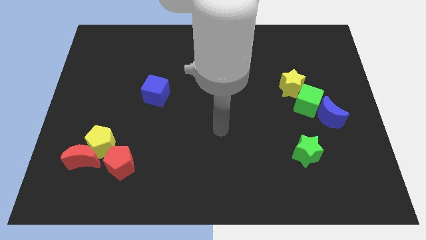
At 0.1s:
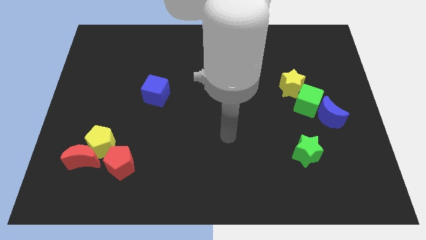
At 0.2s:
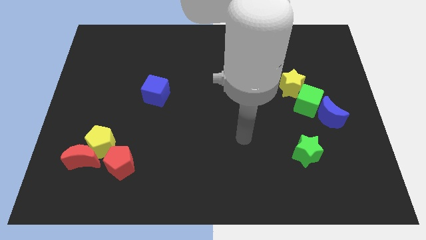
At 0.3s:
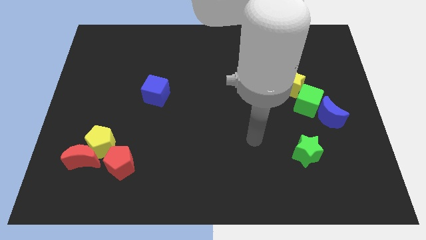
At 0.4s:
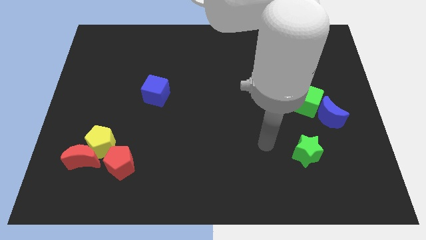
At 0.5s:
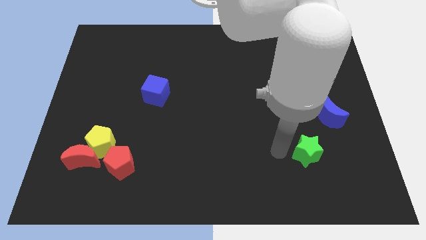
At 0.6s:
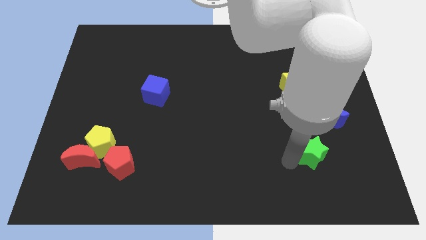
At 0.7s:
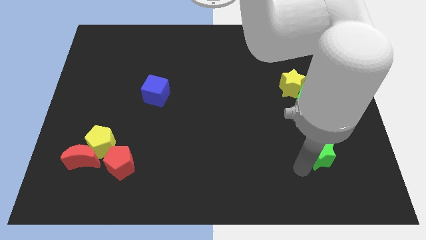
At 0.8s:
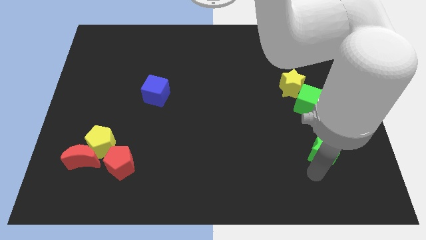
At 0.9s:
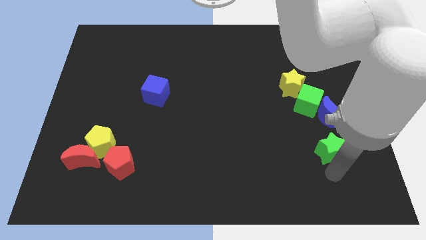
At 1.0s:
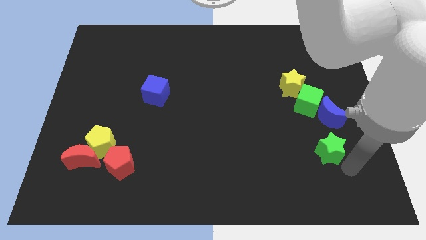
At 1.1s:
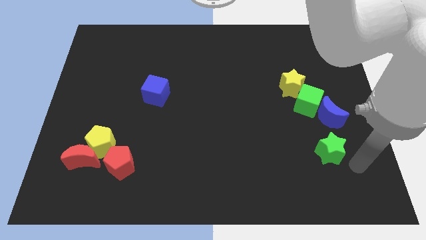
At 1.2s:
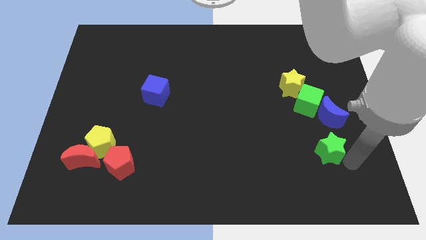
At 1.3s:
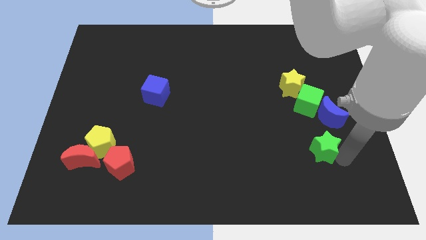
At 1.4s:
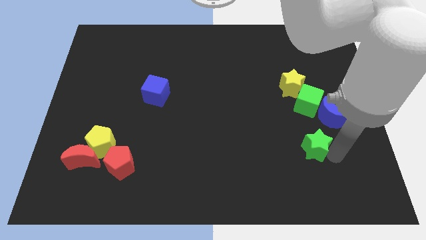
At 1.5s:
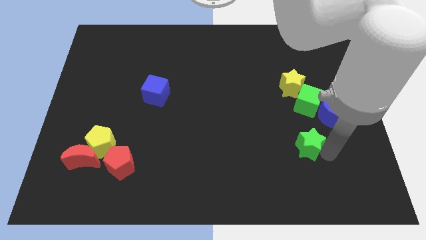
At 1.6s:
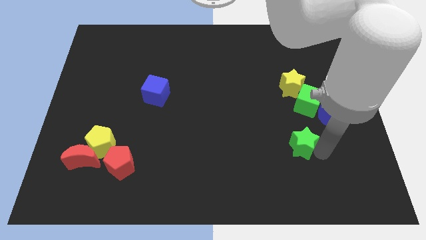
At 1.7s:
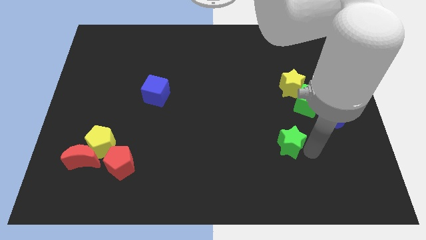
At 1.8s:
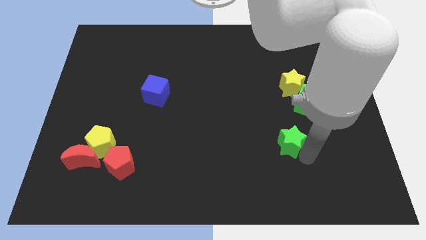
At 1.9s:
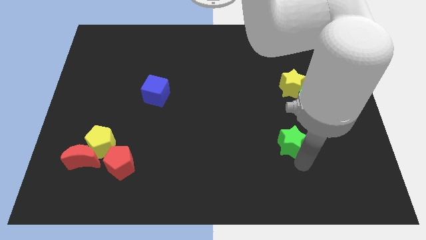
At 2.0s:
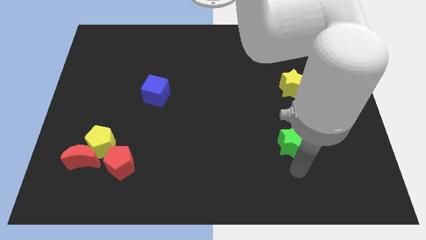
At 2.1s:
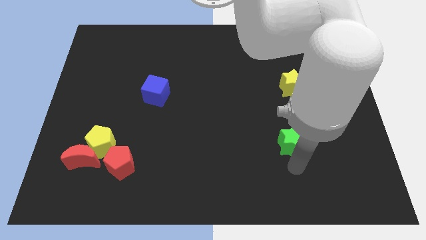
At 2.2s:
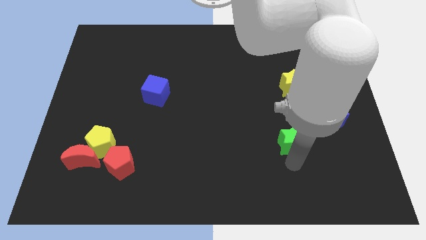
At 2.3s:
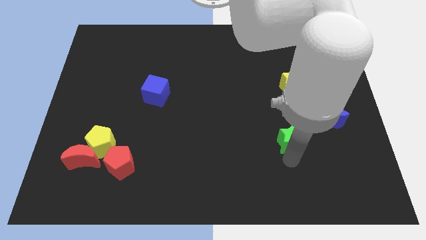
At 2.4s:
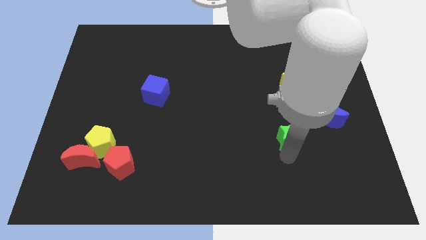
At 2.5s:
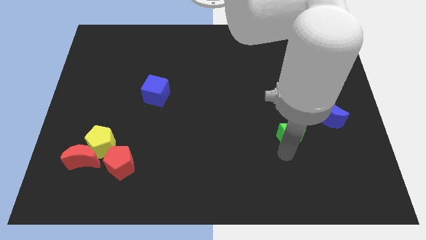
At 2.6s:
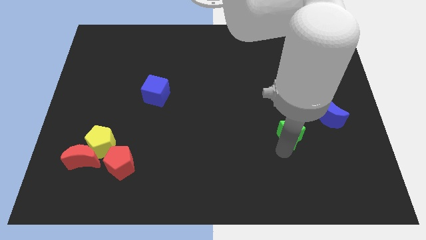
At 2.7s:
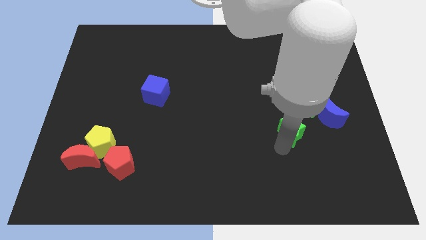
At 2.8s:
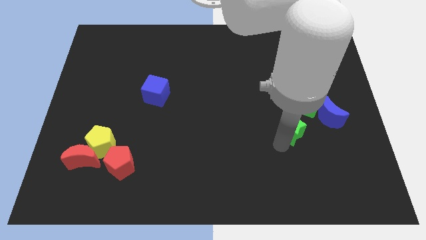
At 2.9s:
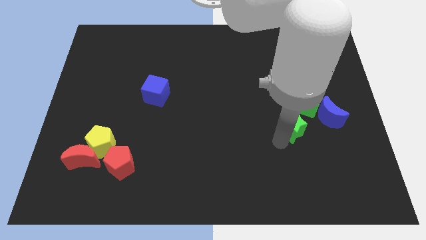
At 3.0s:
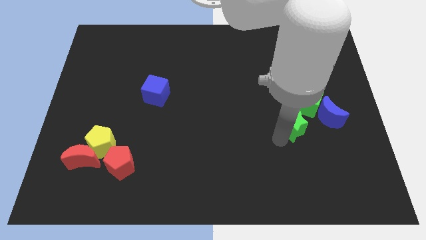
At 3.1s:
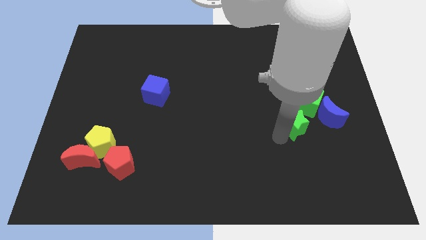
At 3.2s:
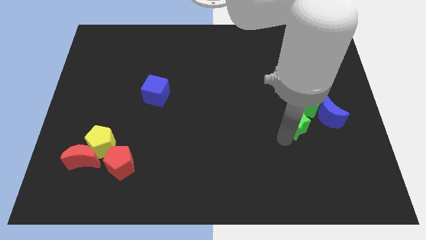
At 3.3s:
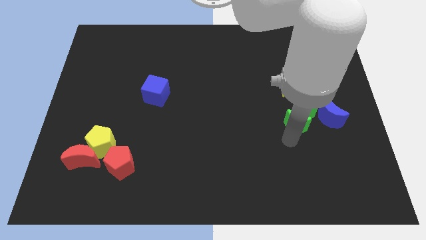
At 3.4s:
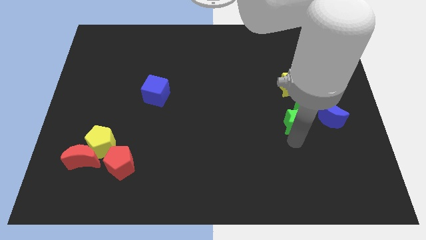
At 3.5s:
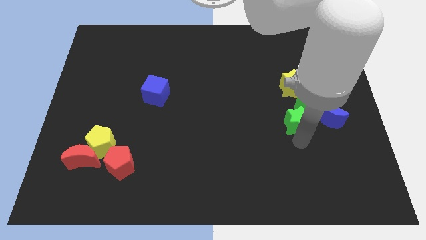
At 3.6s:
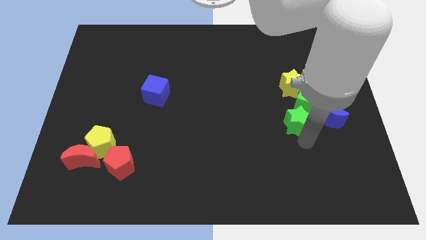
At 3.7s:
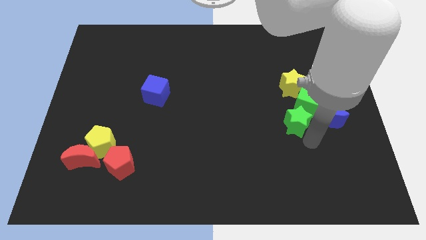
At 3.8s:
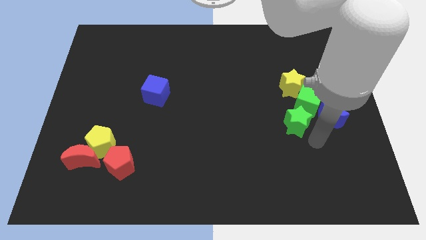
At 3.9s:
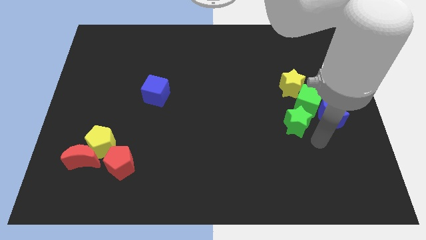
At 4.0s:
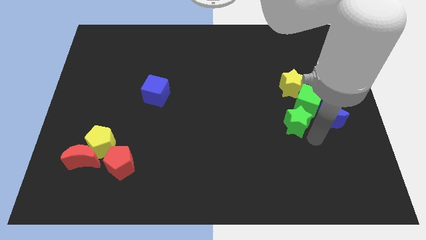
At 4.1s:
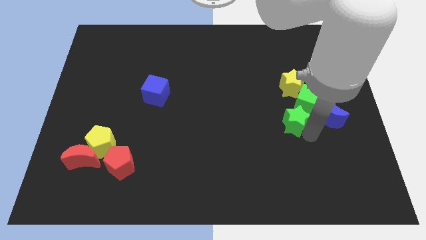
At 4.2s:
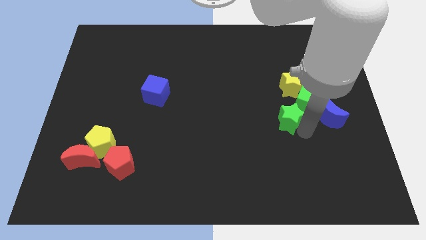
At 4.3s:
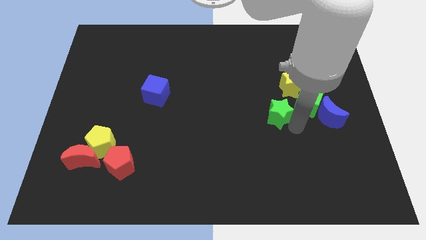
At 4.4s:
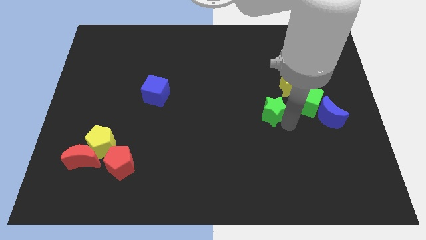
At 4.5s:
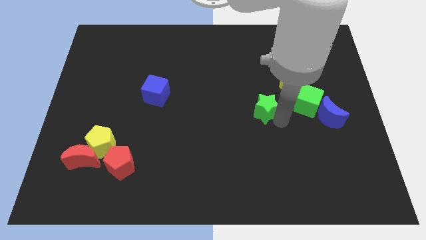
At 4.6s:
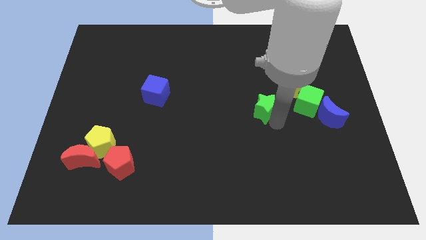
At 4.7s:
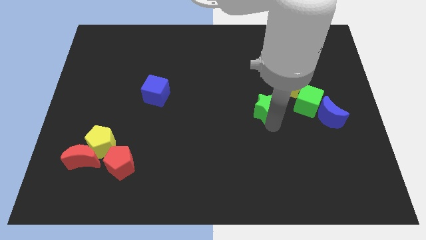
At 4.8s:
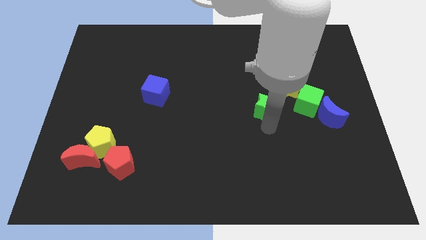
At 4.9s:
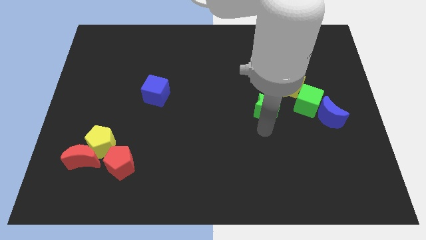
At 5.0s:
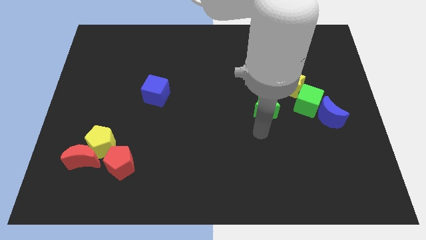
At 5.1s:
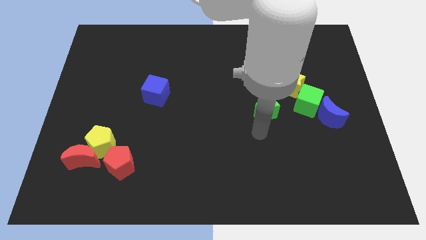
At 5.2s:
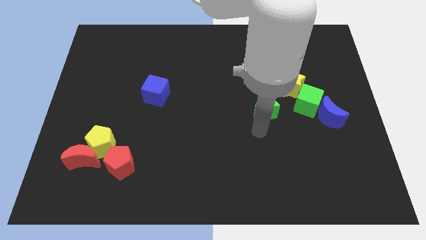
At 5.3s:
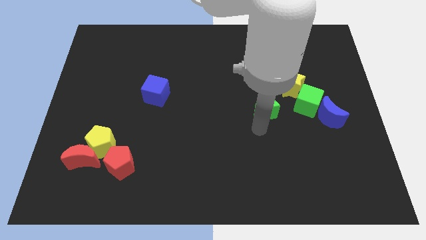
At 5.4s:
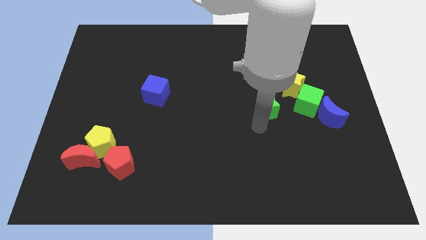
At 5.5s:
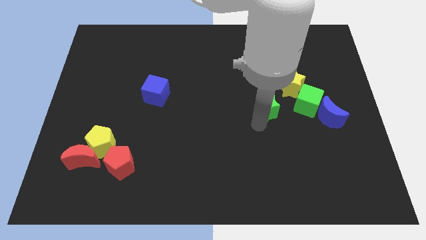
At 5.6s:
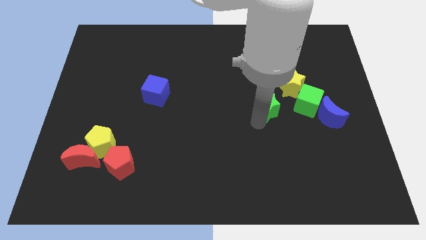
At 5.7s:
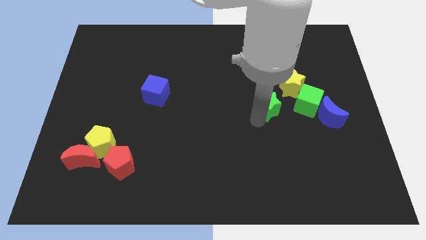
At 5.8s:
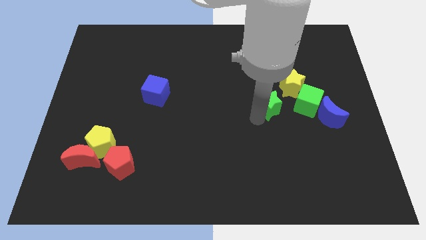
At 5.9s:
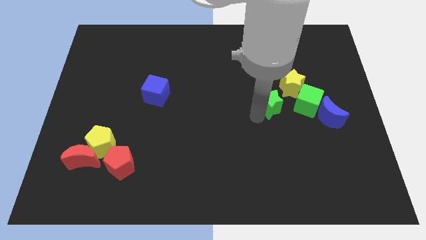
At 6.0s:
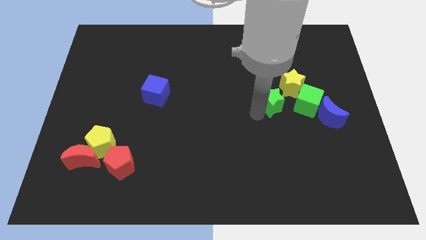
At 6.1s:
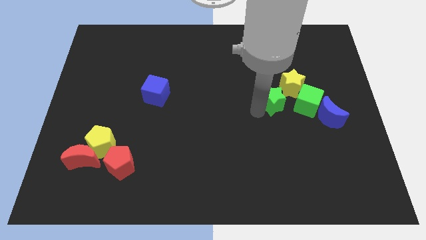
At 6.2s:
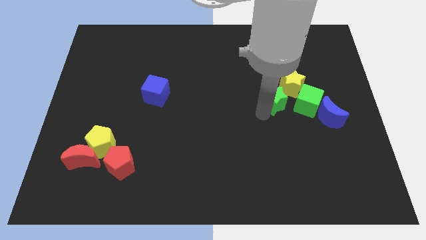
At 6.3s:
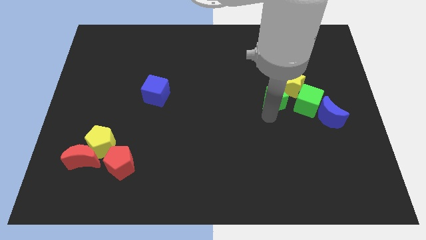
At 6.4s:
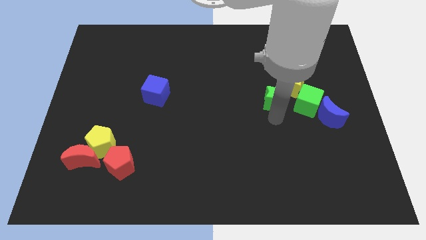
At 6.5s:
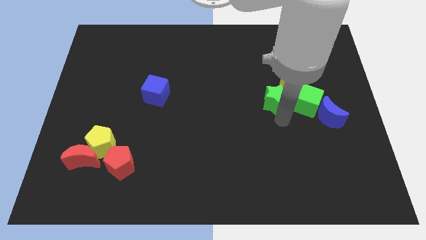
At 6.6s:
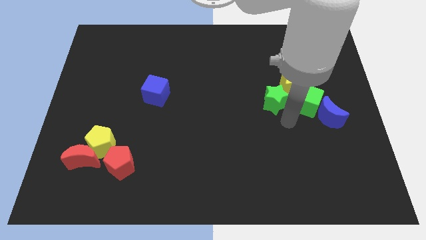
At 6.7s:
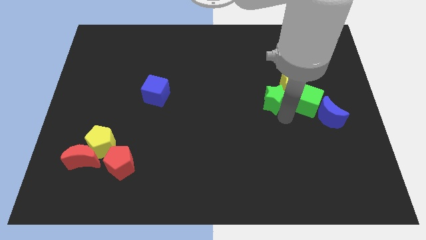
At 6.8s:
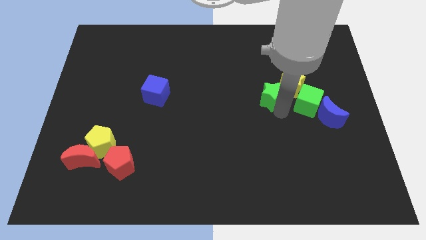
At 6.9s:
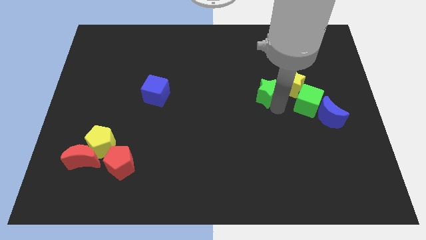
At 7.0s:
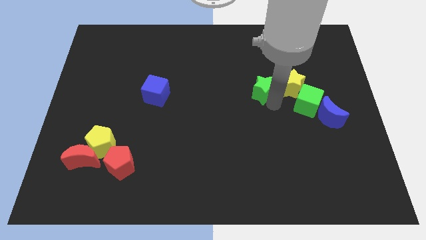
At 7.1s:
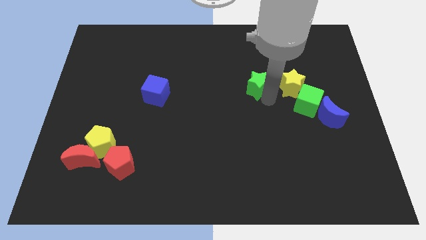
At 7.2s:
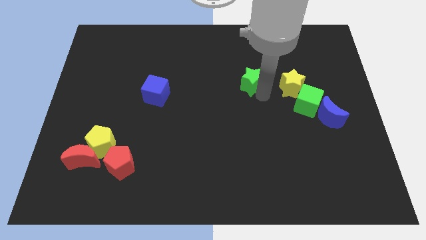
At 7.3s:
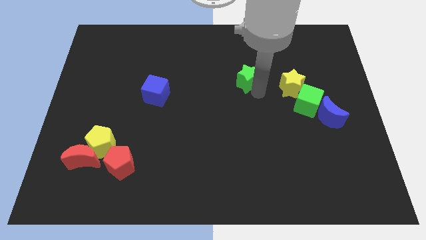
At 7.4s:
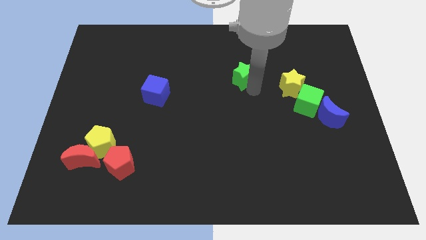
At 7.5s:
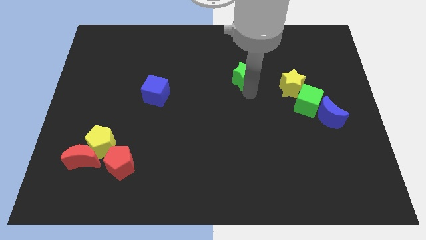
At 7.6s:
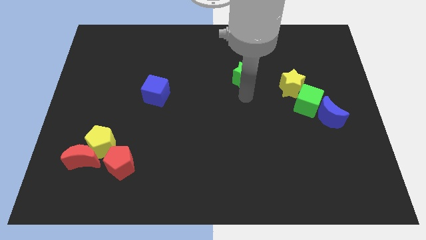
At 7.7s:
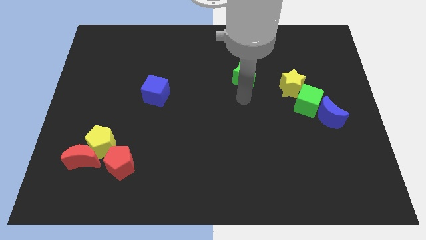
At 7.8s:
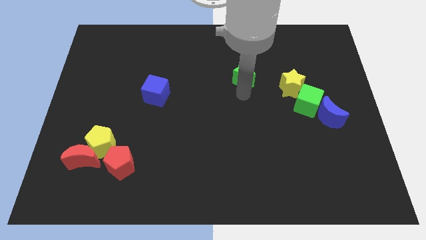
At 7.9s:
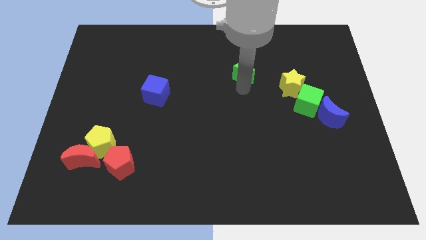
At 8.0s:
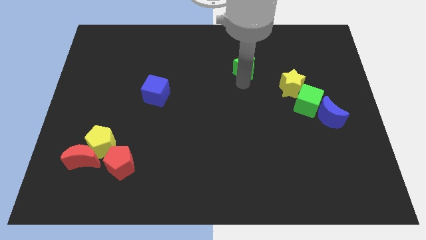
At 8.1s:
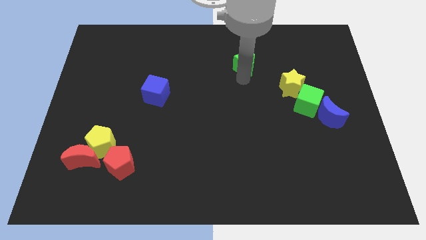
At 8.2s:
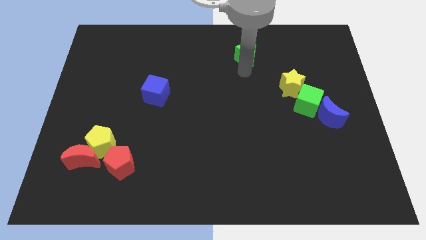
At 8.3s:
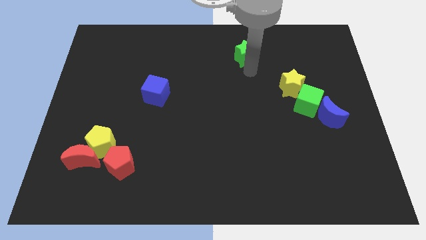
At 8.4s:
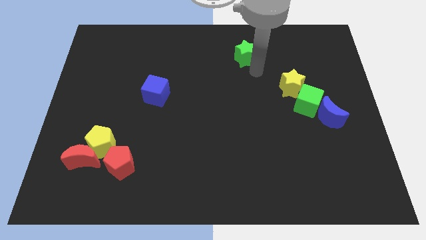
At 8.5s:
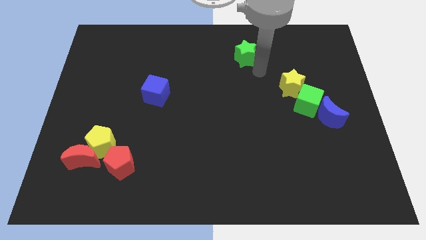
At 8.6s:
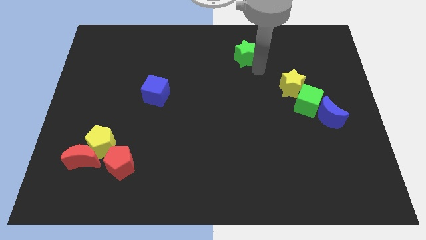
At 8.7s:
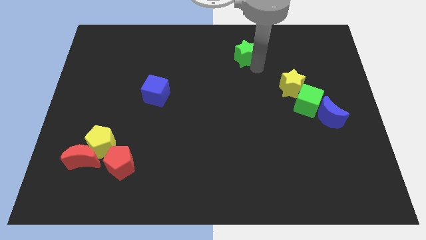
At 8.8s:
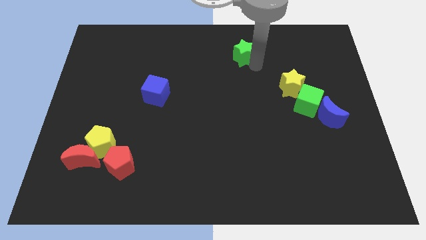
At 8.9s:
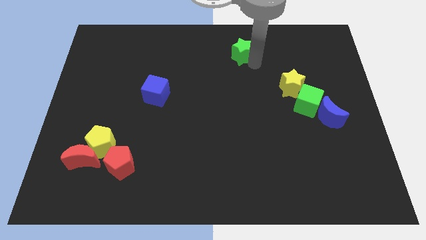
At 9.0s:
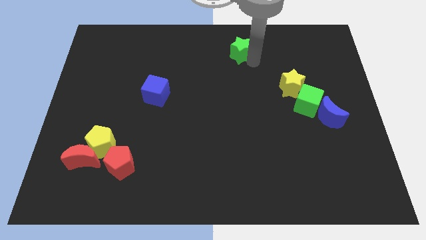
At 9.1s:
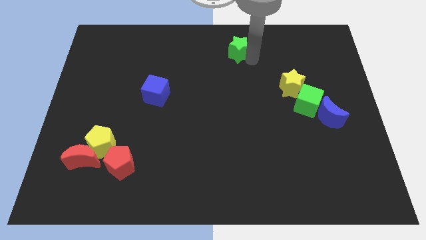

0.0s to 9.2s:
slide the green star to the top
